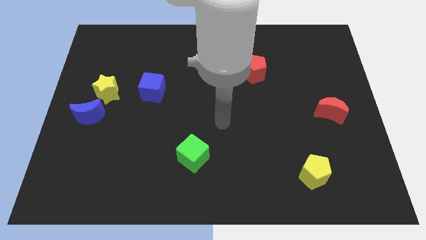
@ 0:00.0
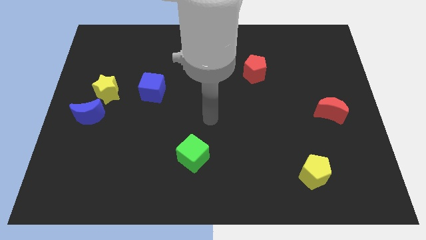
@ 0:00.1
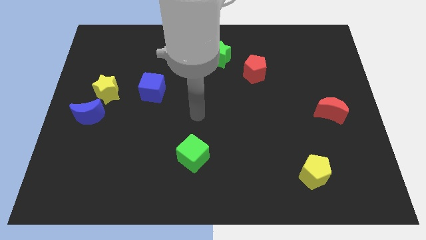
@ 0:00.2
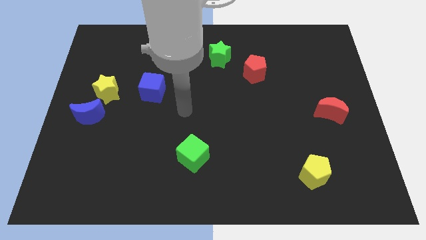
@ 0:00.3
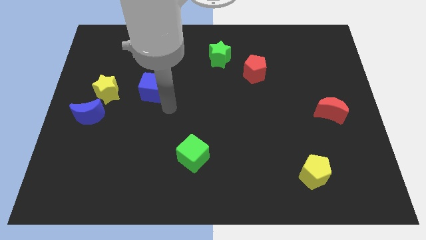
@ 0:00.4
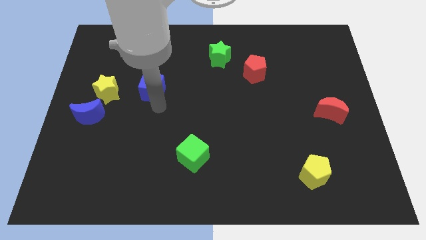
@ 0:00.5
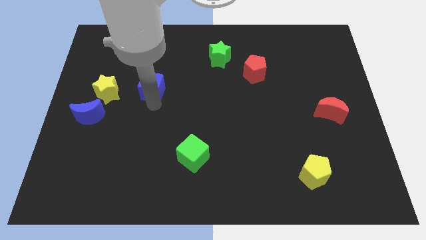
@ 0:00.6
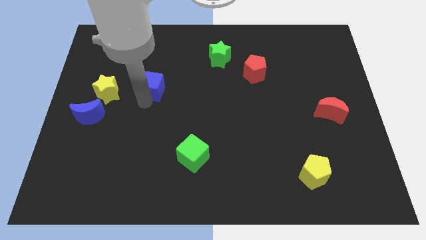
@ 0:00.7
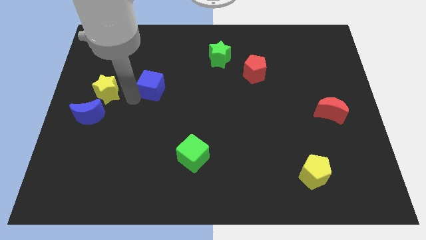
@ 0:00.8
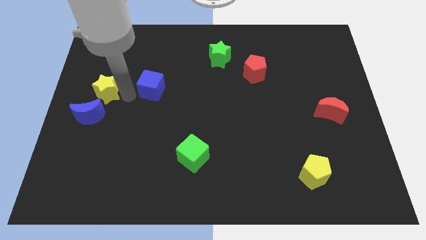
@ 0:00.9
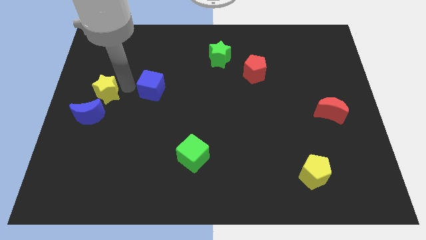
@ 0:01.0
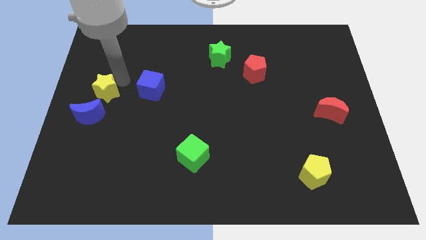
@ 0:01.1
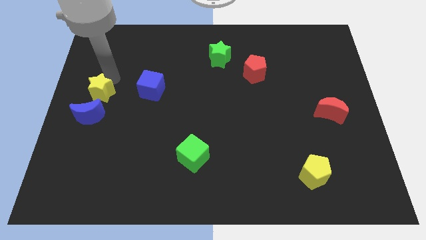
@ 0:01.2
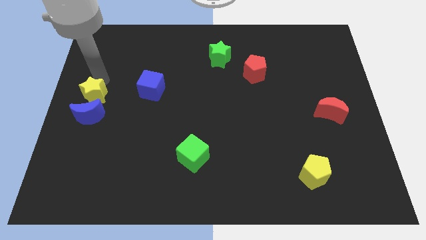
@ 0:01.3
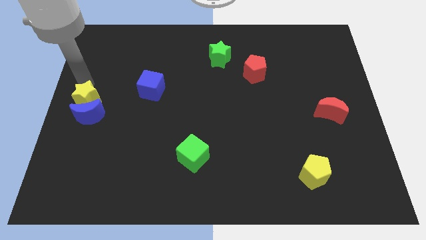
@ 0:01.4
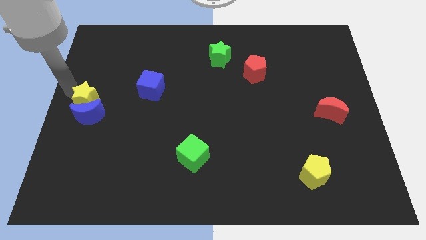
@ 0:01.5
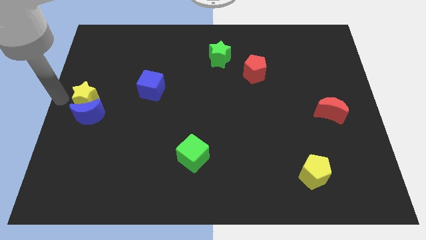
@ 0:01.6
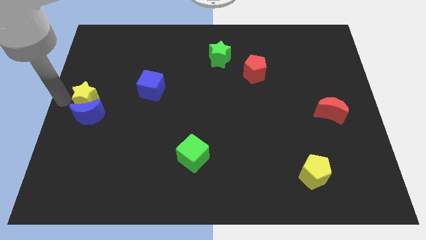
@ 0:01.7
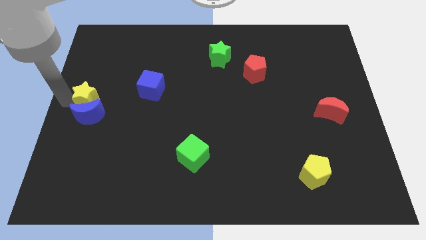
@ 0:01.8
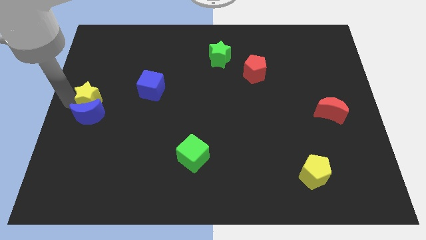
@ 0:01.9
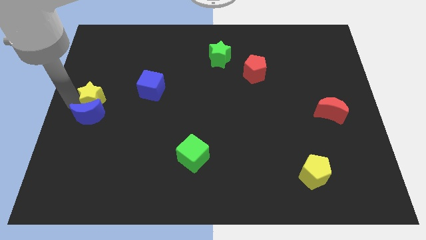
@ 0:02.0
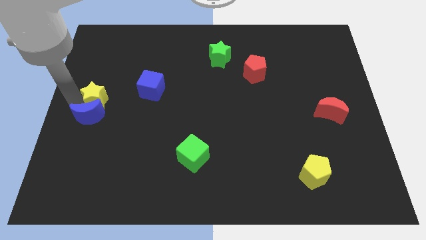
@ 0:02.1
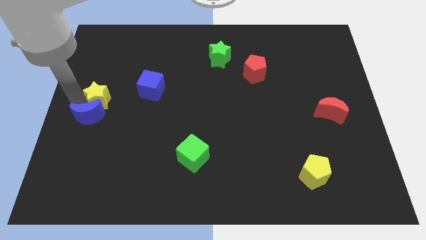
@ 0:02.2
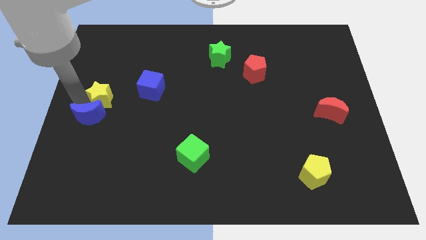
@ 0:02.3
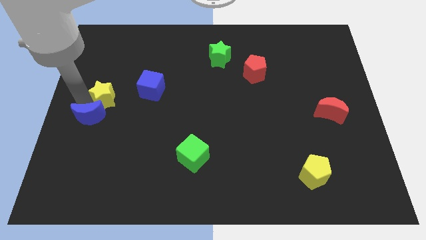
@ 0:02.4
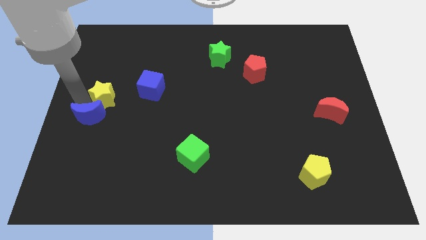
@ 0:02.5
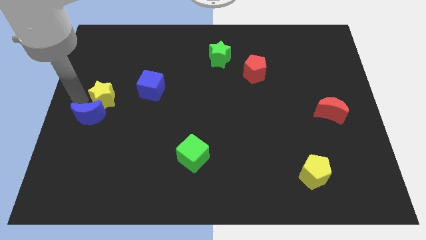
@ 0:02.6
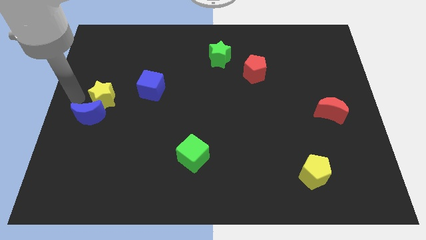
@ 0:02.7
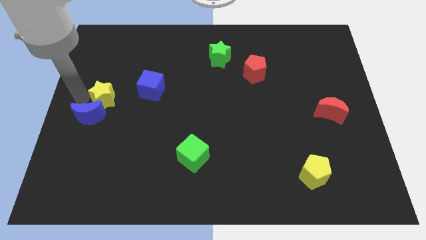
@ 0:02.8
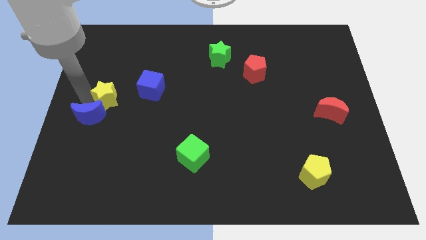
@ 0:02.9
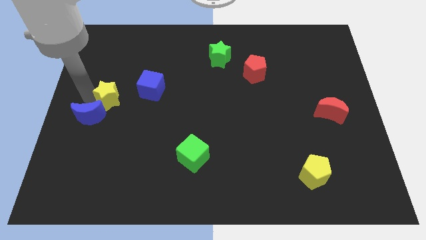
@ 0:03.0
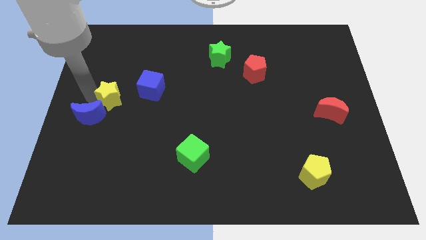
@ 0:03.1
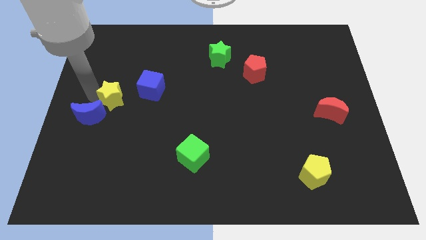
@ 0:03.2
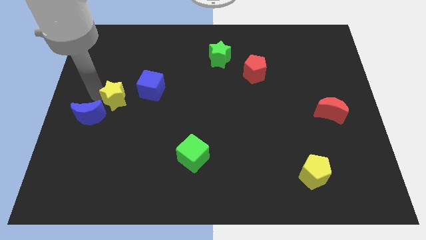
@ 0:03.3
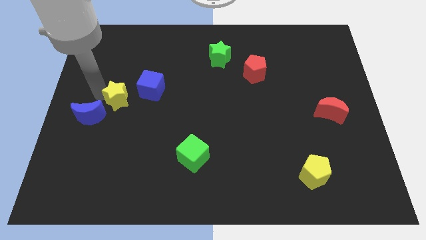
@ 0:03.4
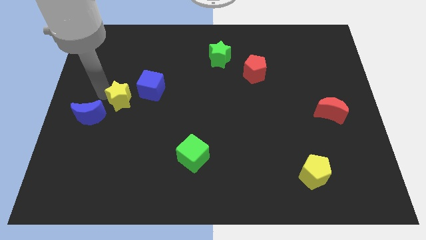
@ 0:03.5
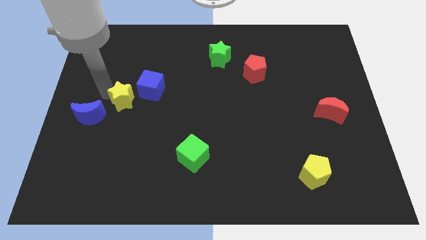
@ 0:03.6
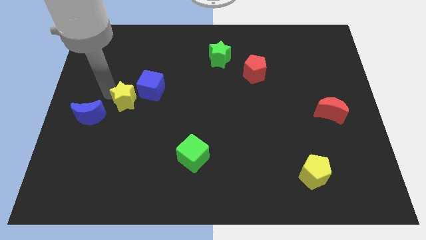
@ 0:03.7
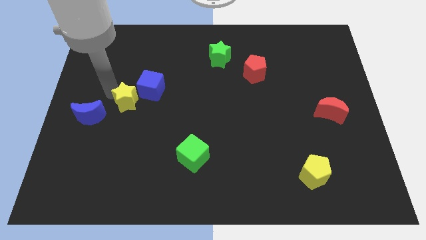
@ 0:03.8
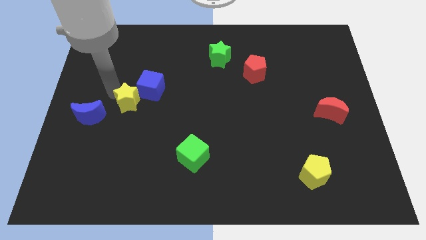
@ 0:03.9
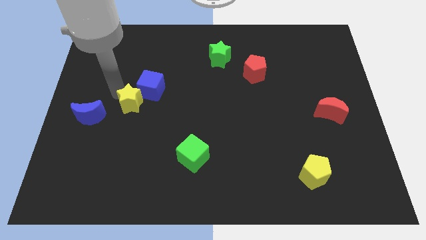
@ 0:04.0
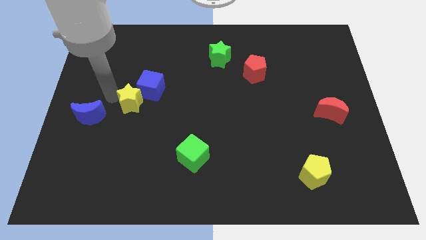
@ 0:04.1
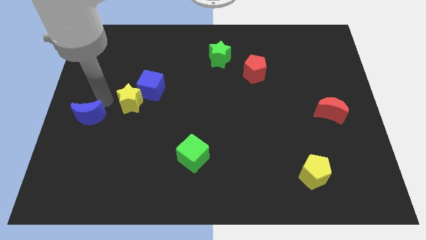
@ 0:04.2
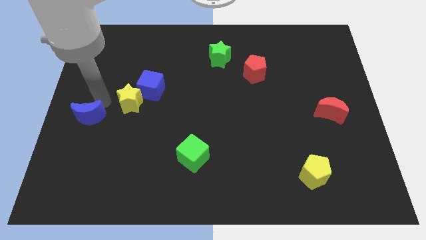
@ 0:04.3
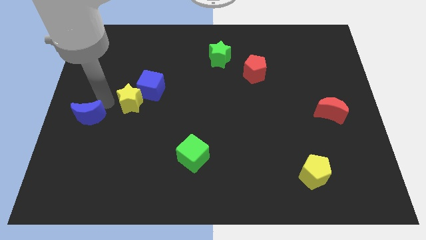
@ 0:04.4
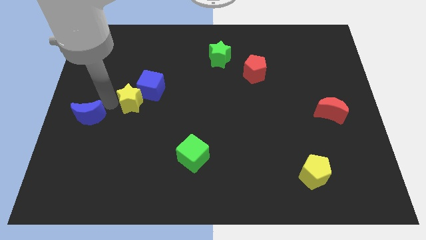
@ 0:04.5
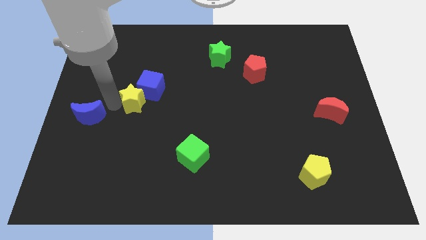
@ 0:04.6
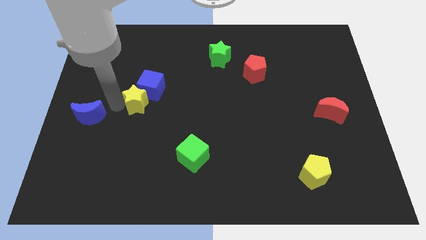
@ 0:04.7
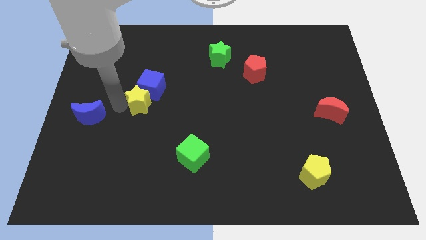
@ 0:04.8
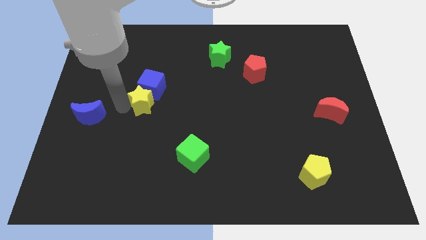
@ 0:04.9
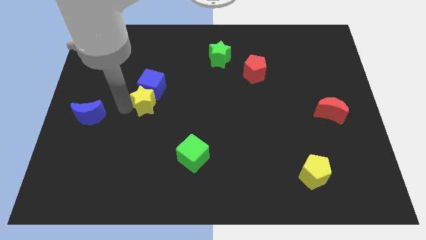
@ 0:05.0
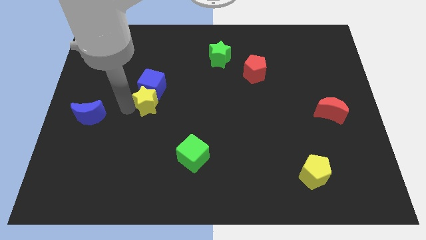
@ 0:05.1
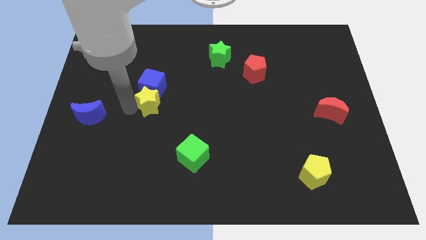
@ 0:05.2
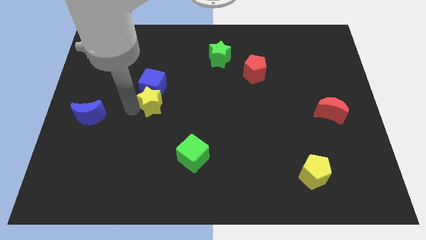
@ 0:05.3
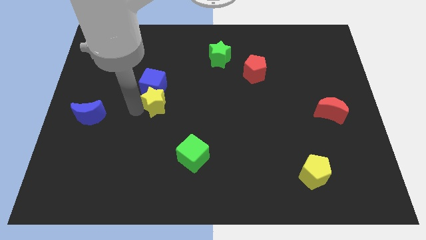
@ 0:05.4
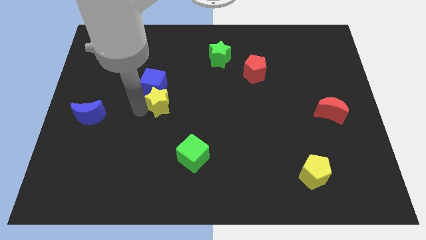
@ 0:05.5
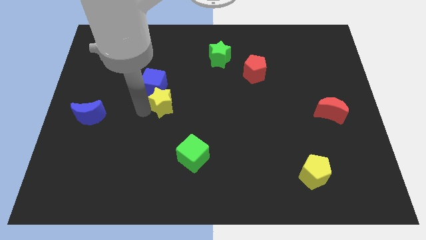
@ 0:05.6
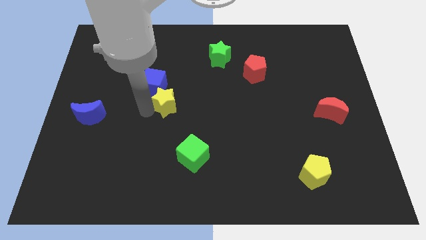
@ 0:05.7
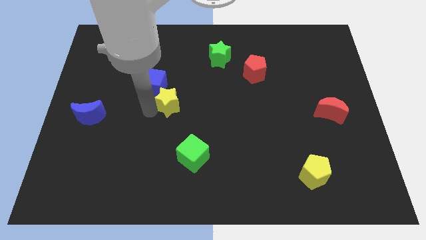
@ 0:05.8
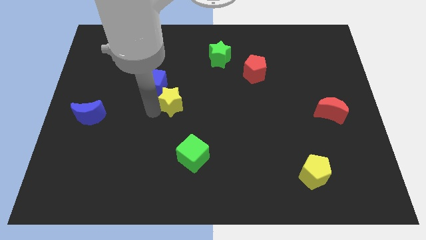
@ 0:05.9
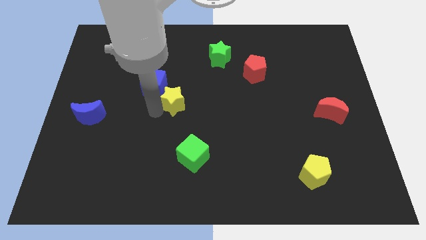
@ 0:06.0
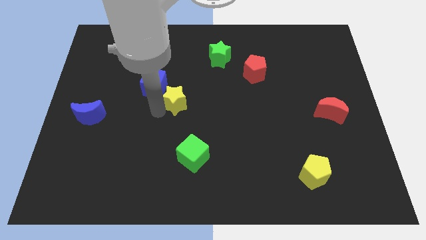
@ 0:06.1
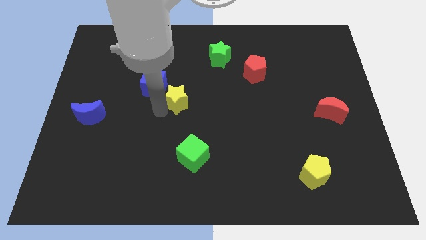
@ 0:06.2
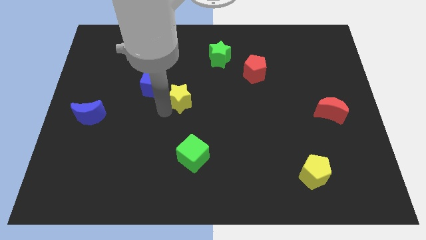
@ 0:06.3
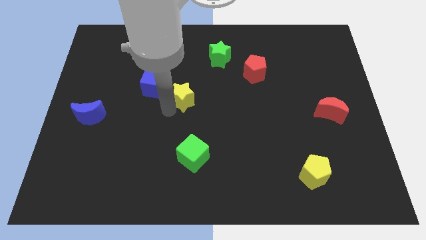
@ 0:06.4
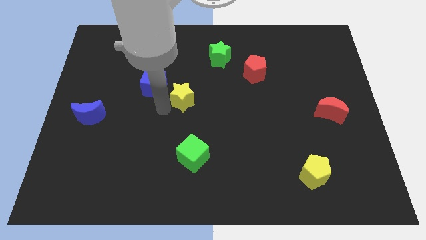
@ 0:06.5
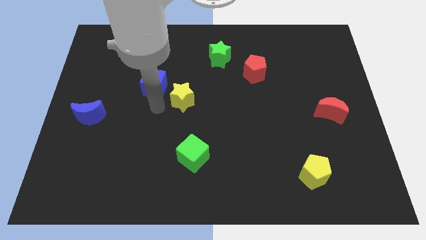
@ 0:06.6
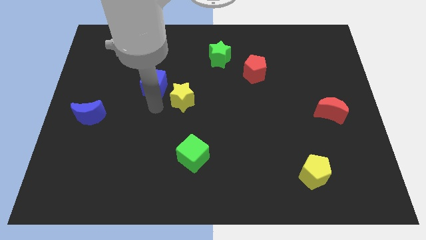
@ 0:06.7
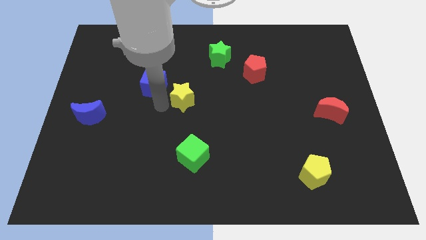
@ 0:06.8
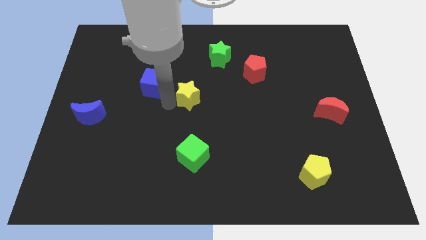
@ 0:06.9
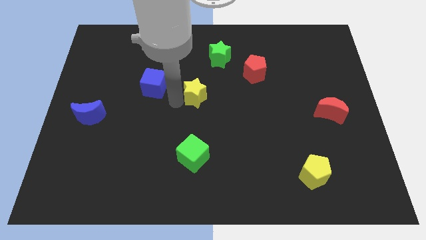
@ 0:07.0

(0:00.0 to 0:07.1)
slide the yellow star right

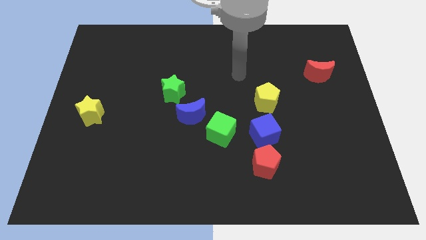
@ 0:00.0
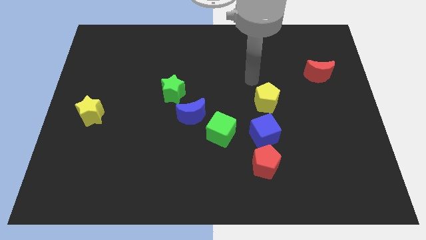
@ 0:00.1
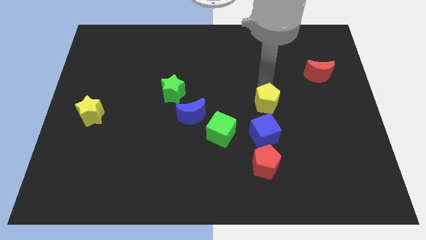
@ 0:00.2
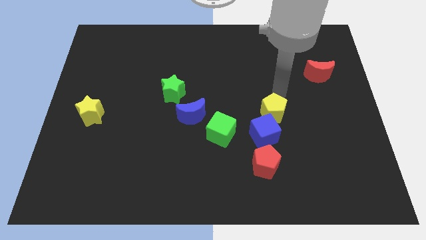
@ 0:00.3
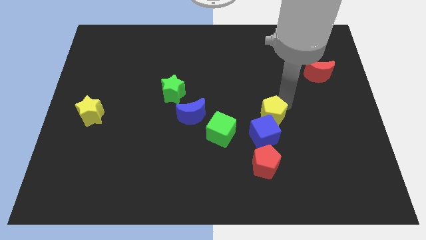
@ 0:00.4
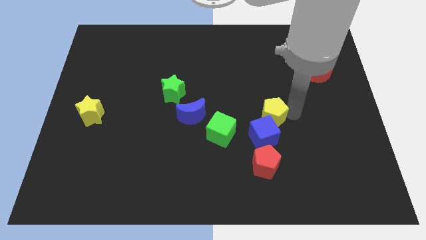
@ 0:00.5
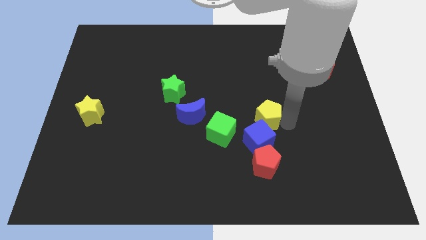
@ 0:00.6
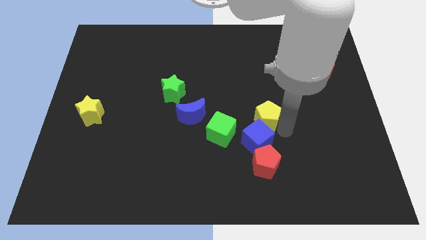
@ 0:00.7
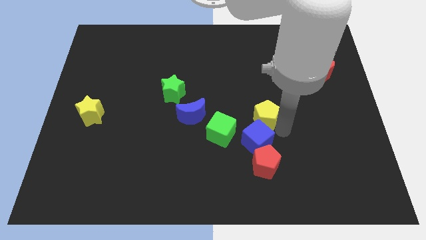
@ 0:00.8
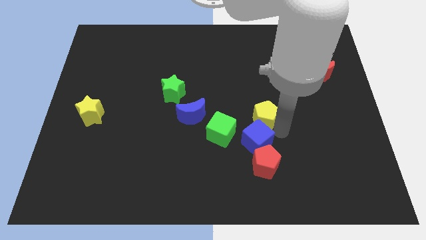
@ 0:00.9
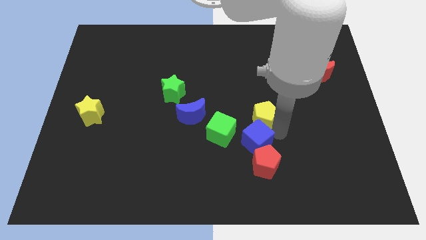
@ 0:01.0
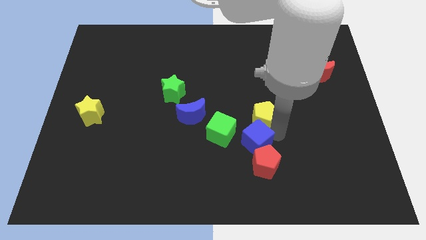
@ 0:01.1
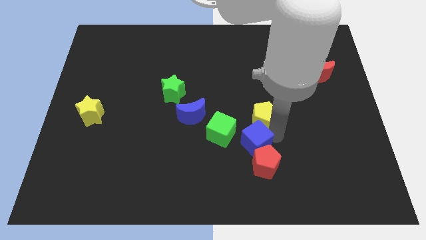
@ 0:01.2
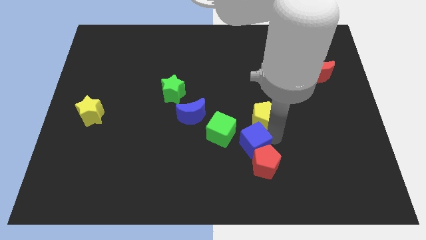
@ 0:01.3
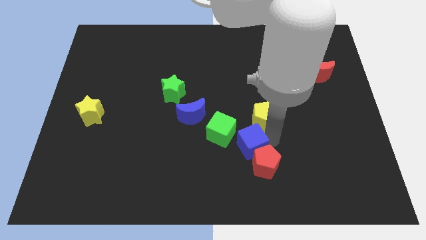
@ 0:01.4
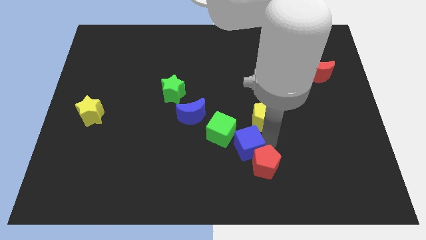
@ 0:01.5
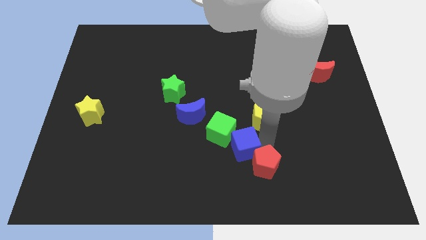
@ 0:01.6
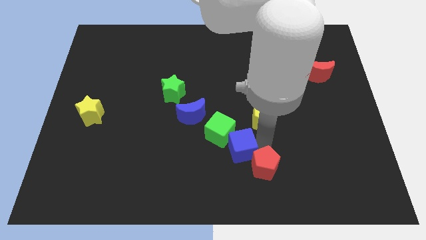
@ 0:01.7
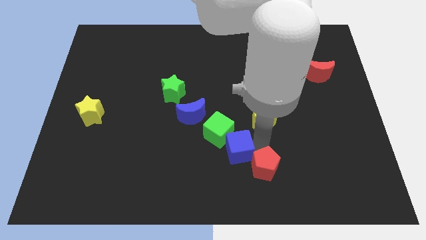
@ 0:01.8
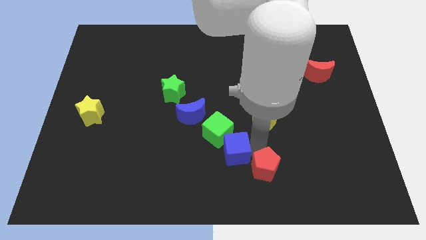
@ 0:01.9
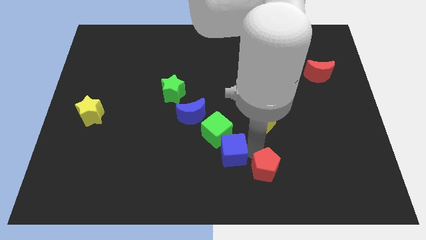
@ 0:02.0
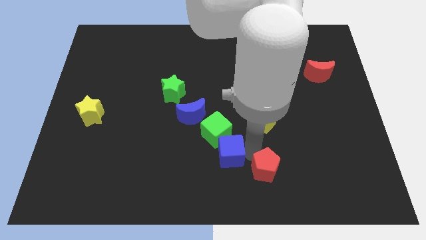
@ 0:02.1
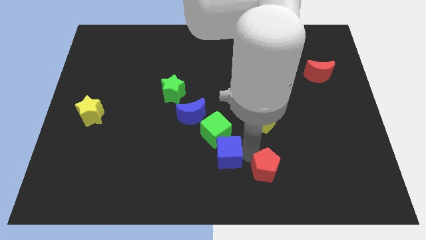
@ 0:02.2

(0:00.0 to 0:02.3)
push the blue cube a little bit left
